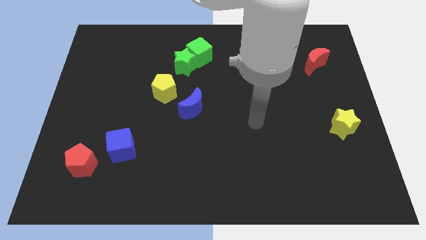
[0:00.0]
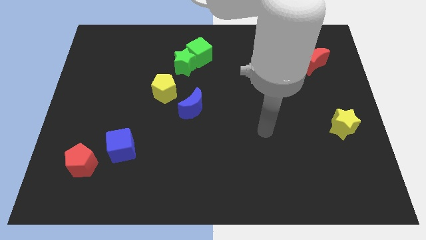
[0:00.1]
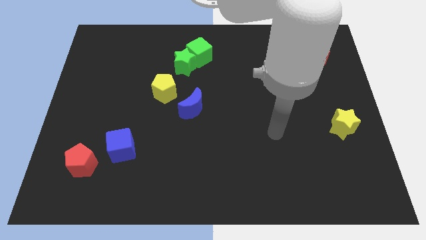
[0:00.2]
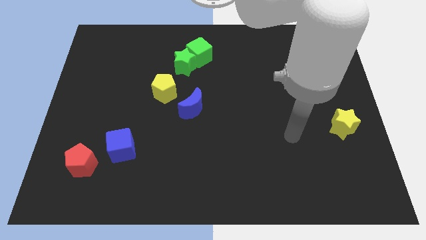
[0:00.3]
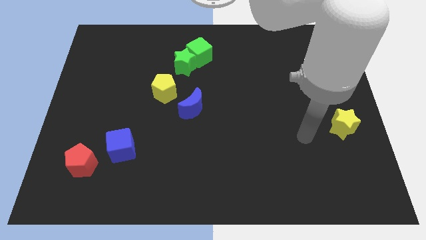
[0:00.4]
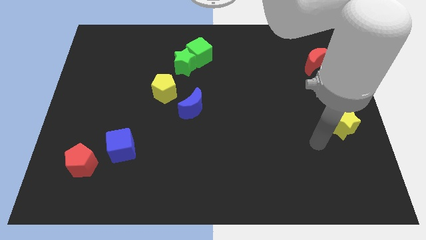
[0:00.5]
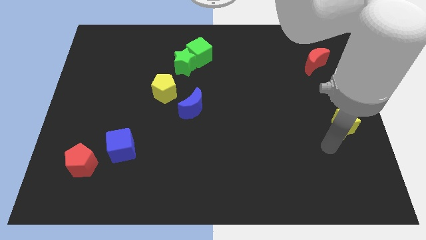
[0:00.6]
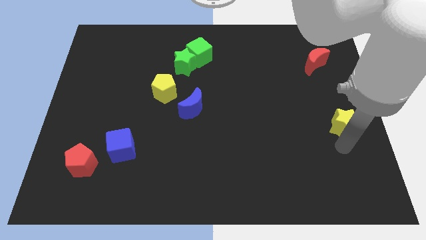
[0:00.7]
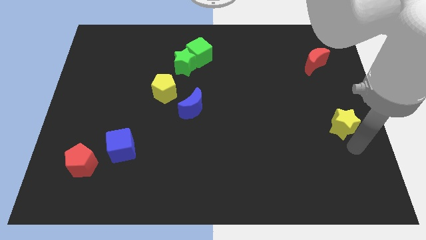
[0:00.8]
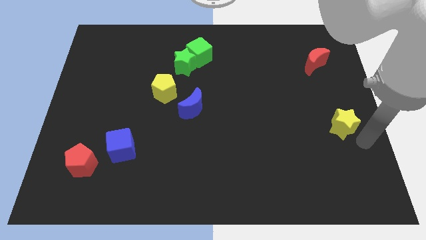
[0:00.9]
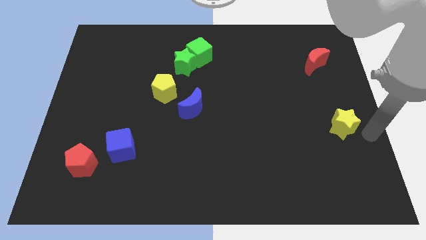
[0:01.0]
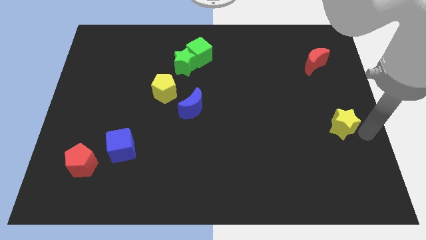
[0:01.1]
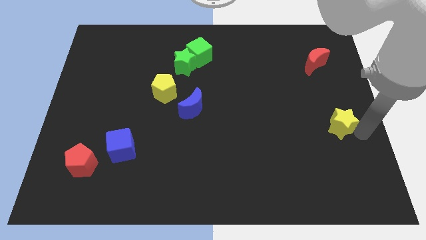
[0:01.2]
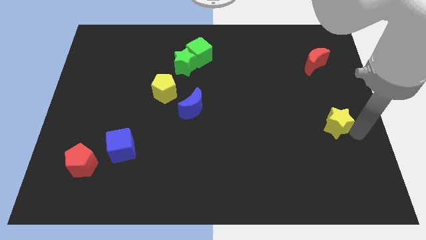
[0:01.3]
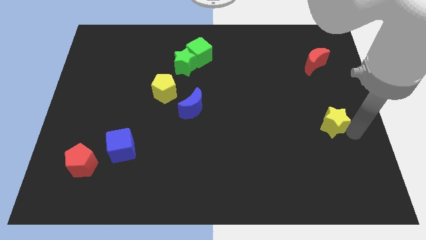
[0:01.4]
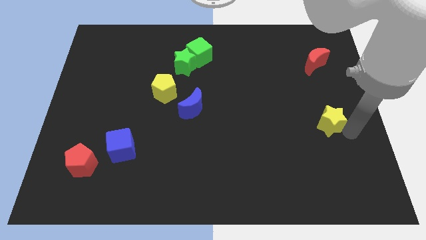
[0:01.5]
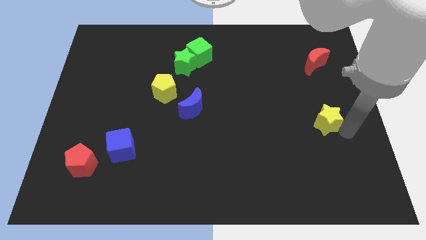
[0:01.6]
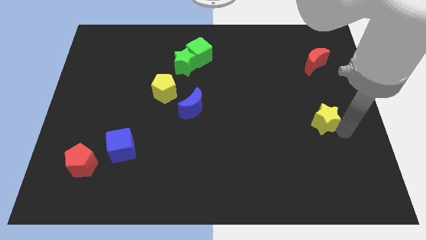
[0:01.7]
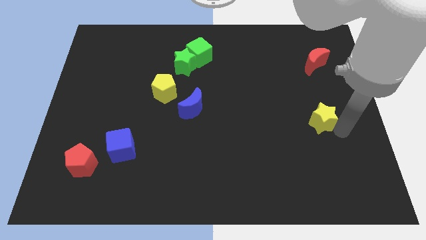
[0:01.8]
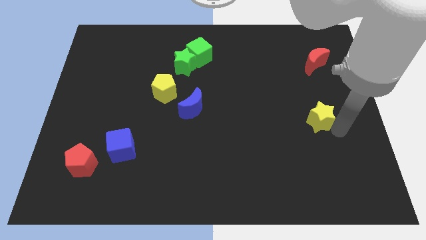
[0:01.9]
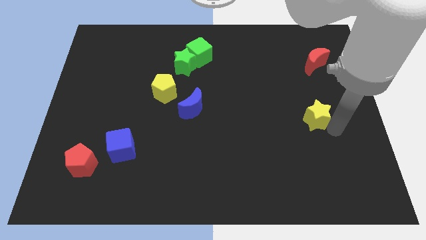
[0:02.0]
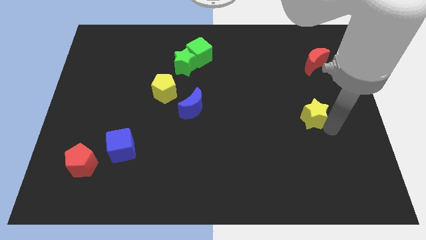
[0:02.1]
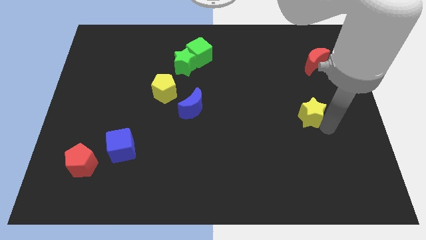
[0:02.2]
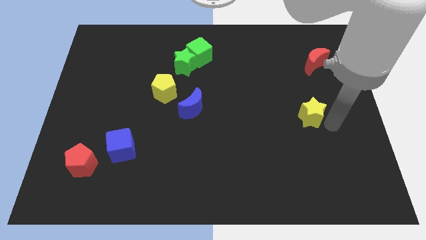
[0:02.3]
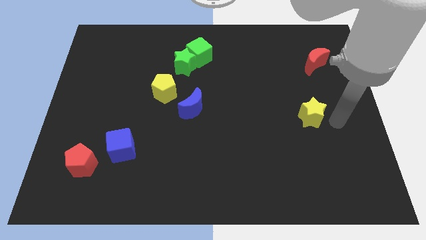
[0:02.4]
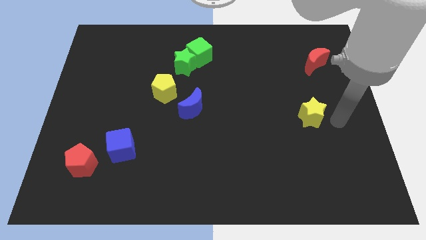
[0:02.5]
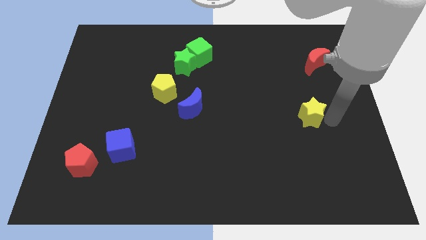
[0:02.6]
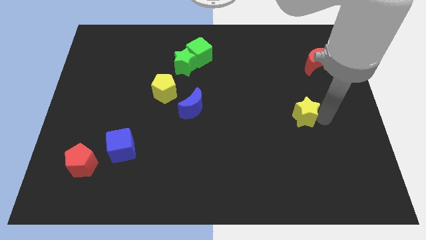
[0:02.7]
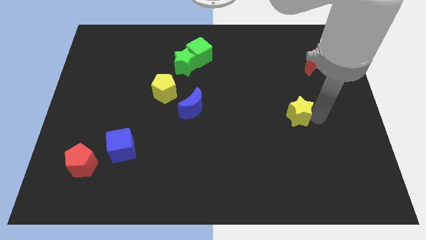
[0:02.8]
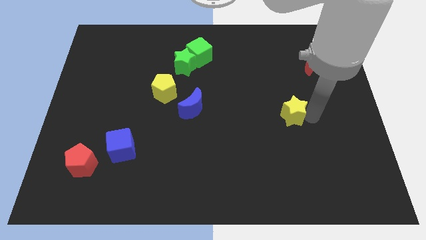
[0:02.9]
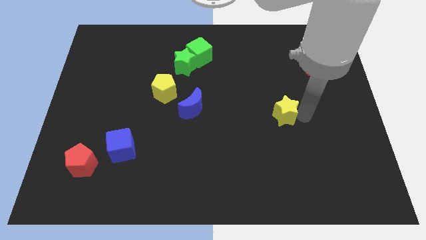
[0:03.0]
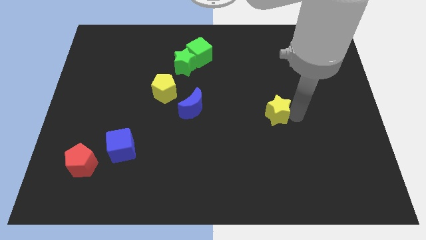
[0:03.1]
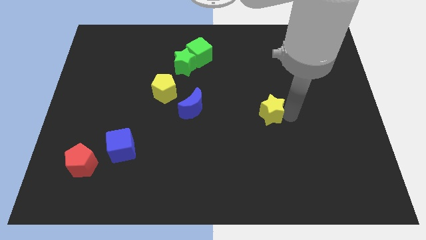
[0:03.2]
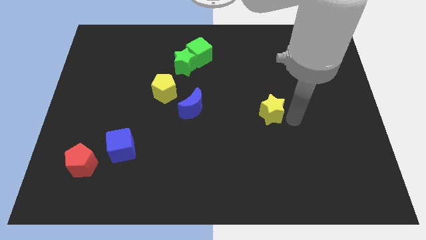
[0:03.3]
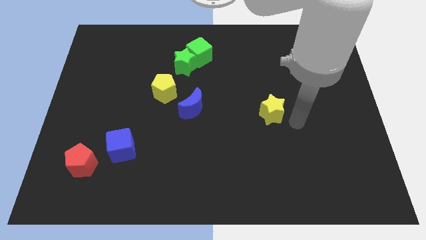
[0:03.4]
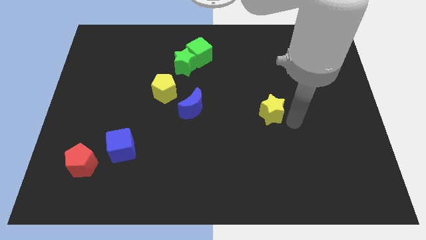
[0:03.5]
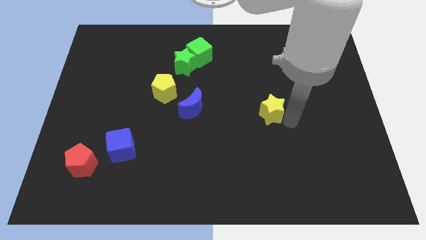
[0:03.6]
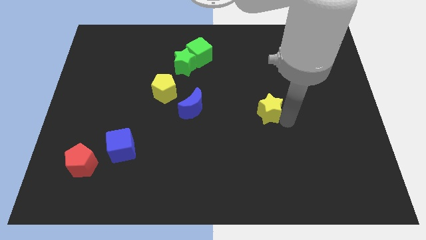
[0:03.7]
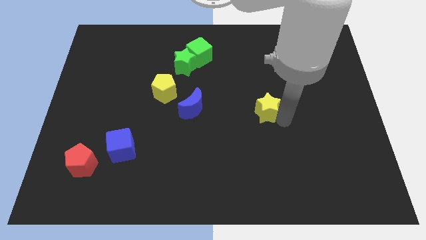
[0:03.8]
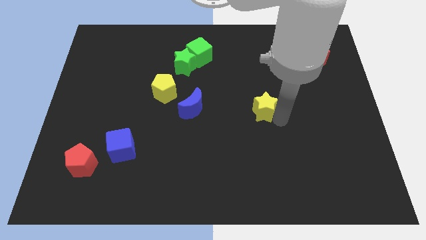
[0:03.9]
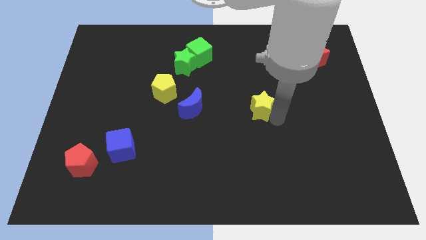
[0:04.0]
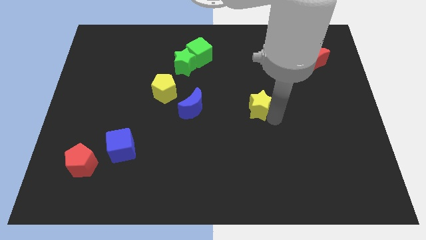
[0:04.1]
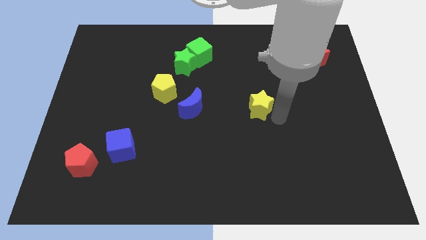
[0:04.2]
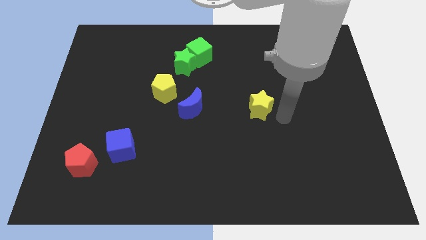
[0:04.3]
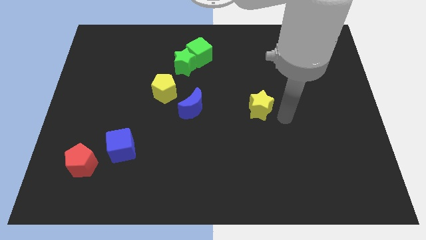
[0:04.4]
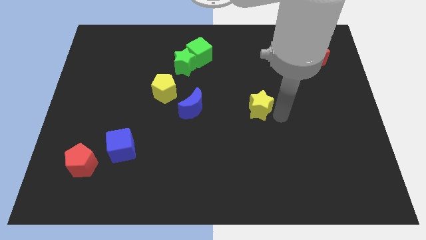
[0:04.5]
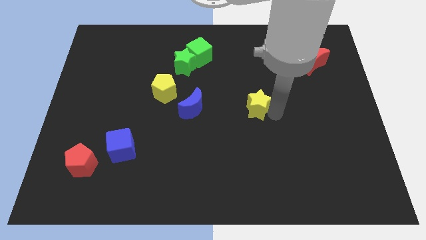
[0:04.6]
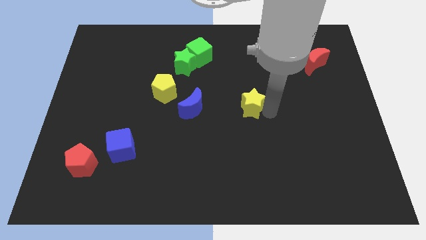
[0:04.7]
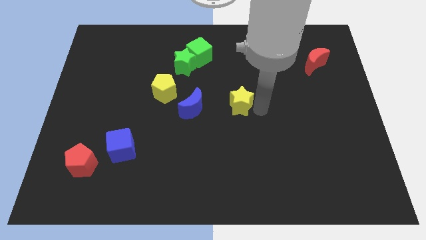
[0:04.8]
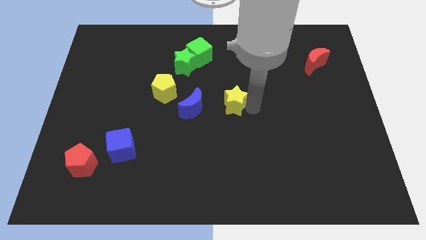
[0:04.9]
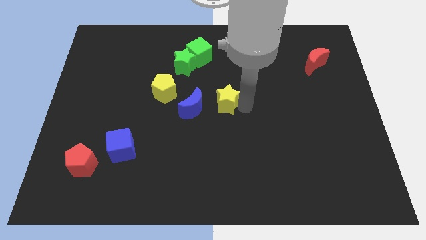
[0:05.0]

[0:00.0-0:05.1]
move the yellow star to the top right side of the blue moon

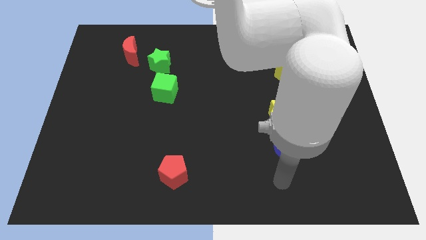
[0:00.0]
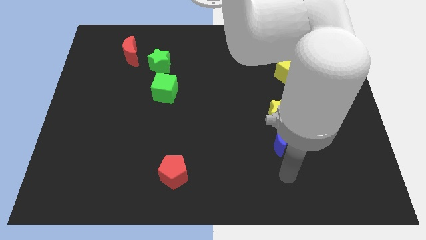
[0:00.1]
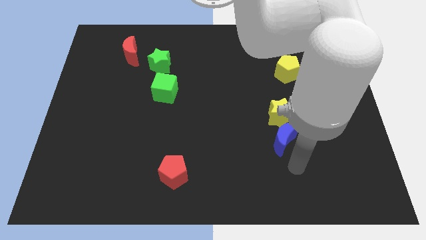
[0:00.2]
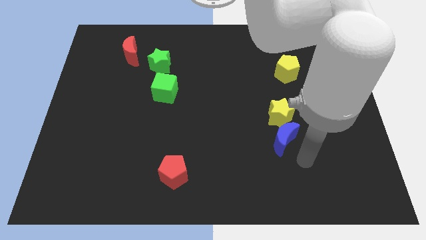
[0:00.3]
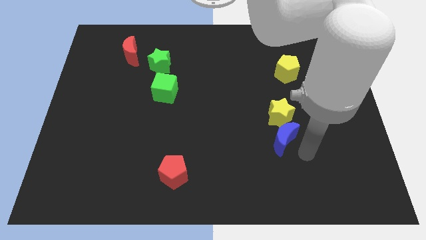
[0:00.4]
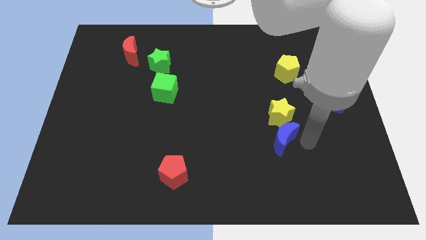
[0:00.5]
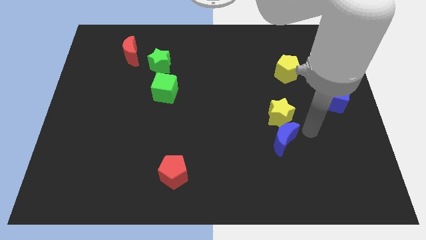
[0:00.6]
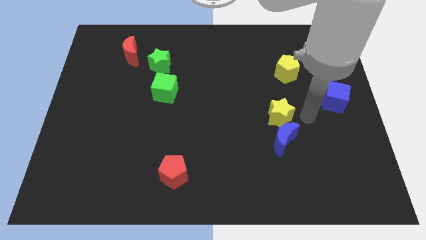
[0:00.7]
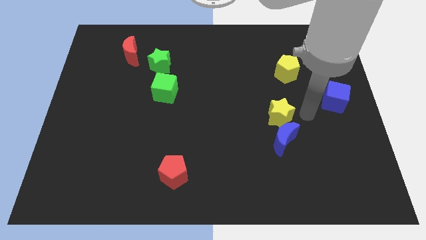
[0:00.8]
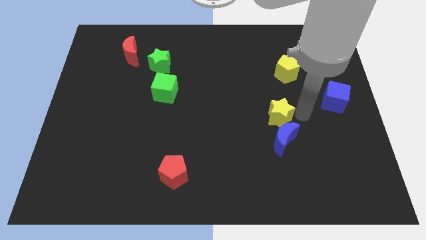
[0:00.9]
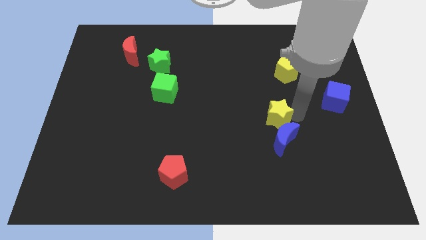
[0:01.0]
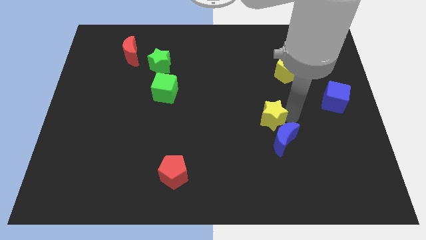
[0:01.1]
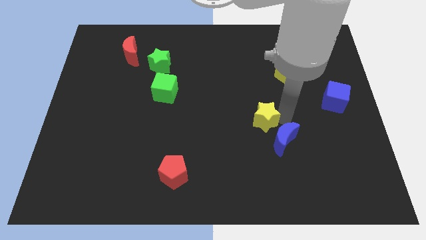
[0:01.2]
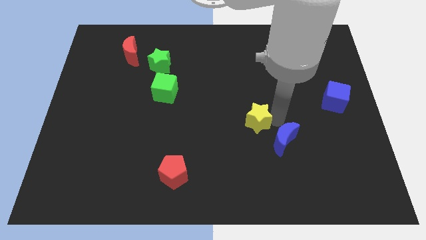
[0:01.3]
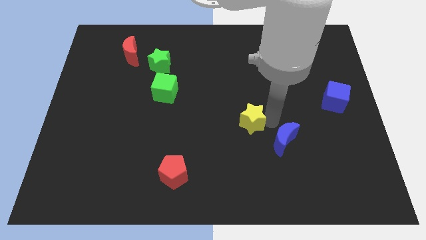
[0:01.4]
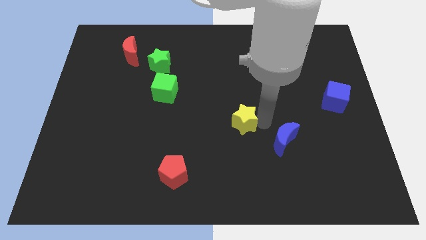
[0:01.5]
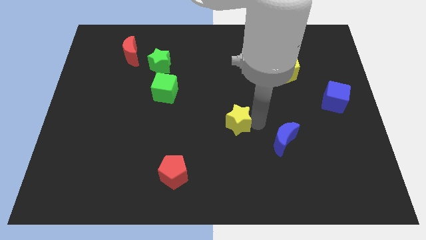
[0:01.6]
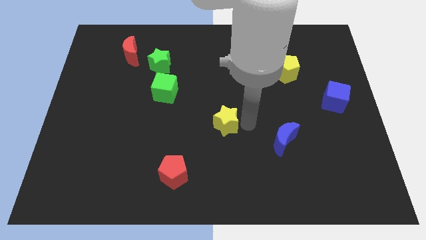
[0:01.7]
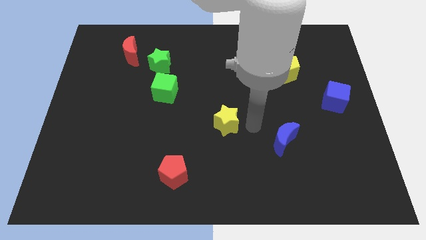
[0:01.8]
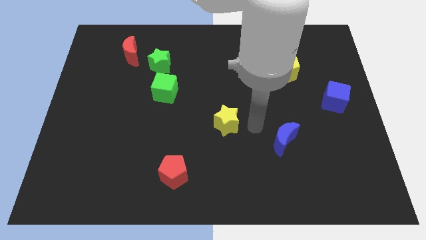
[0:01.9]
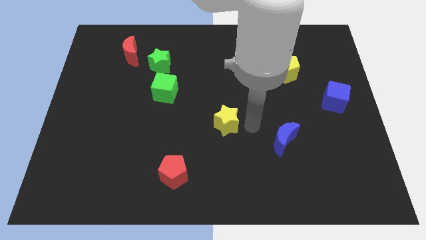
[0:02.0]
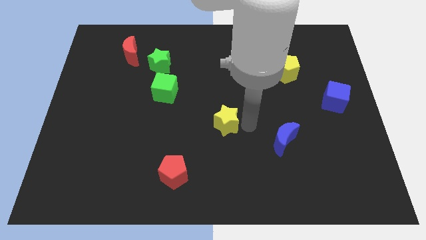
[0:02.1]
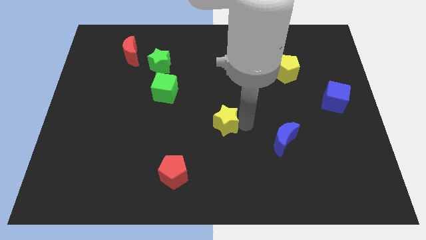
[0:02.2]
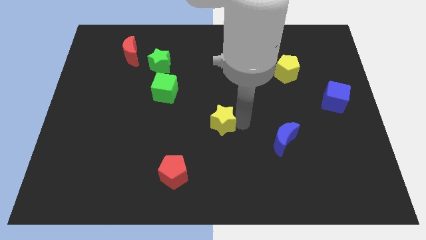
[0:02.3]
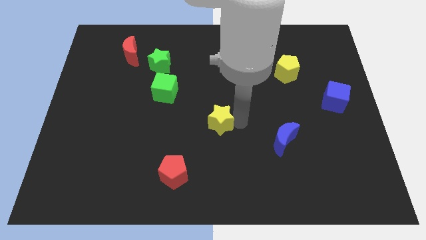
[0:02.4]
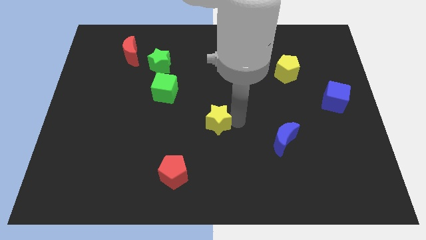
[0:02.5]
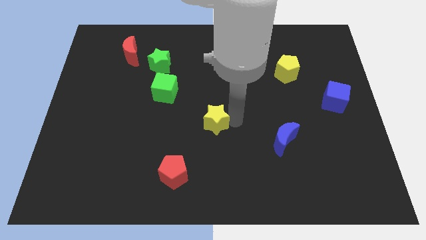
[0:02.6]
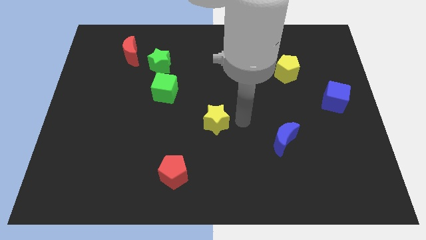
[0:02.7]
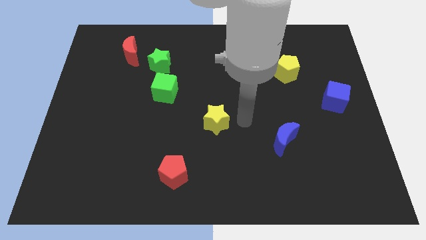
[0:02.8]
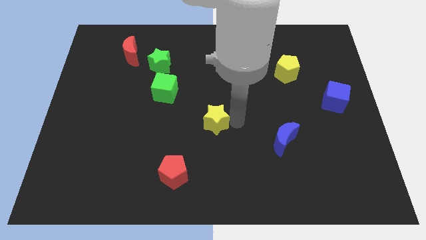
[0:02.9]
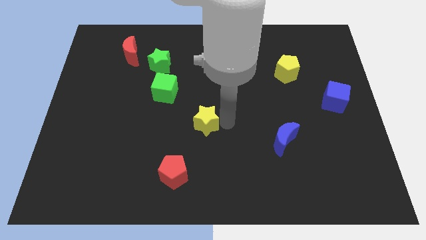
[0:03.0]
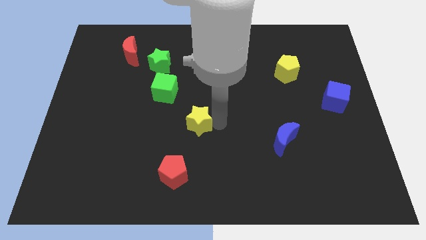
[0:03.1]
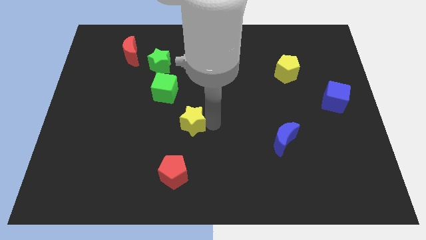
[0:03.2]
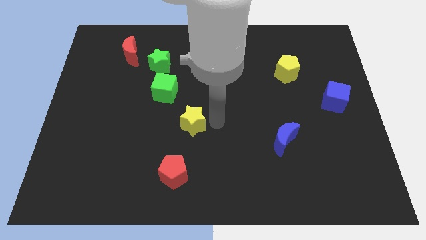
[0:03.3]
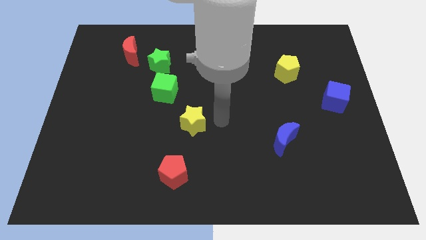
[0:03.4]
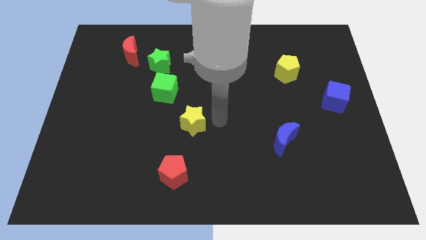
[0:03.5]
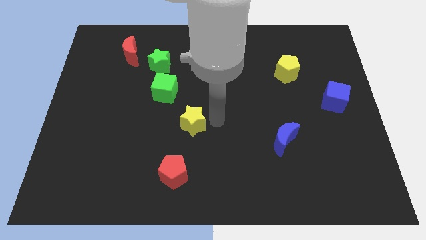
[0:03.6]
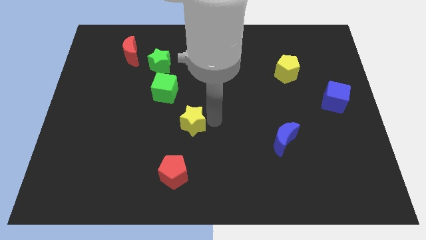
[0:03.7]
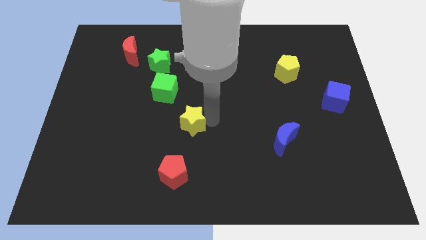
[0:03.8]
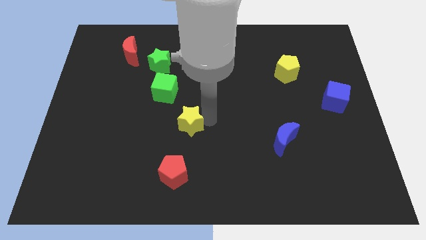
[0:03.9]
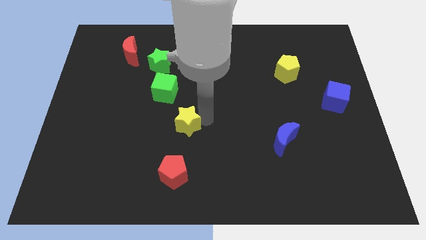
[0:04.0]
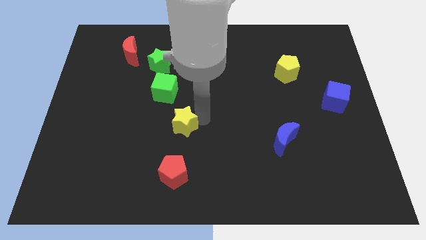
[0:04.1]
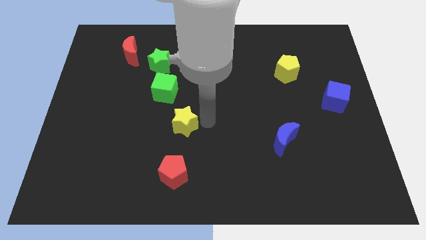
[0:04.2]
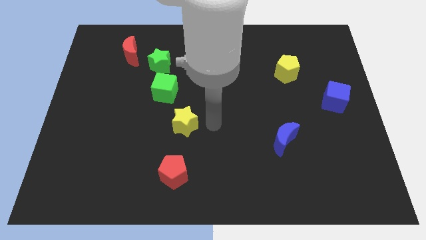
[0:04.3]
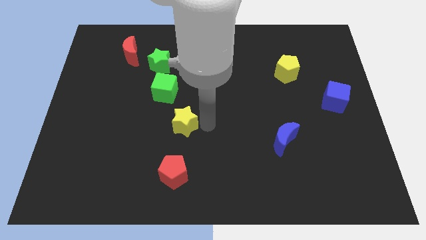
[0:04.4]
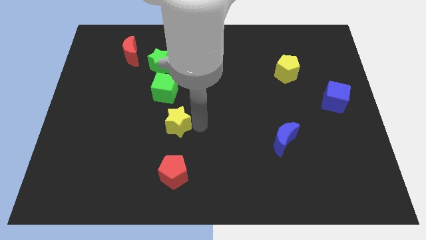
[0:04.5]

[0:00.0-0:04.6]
move the yellow star to the bottom side of the green cube
